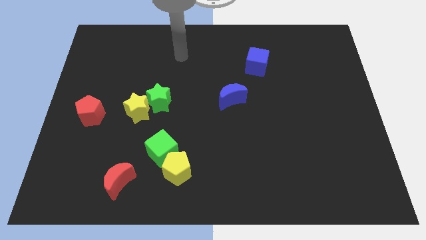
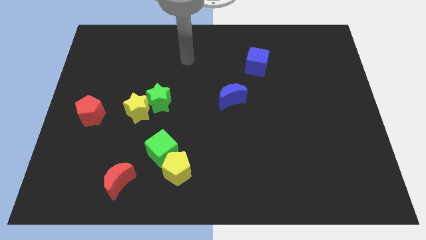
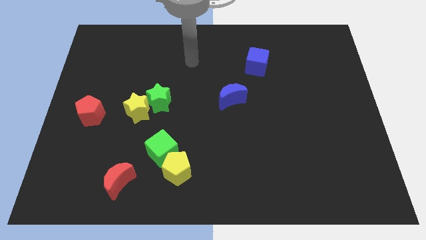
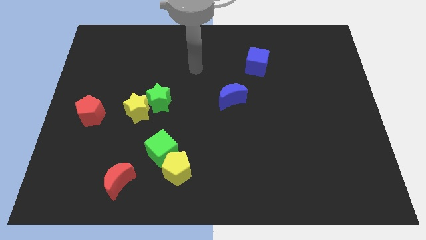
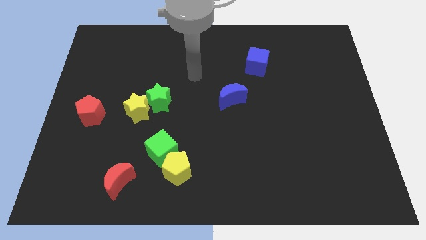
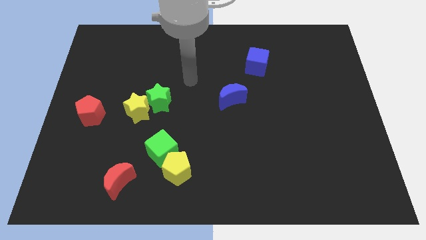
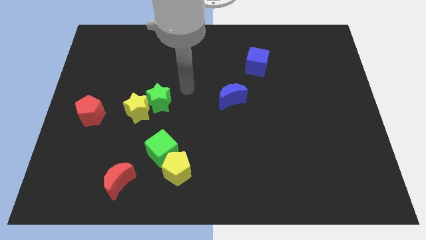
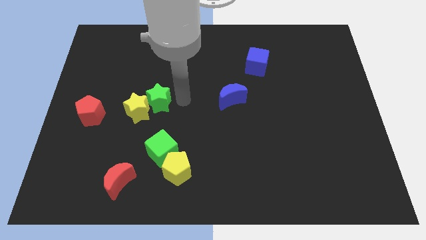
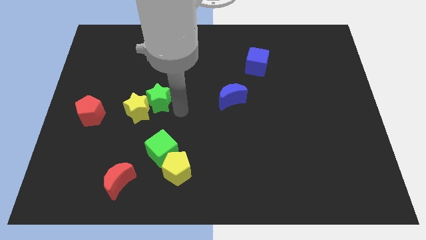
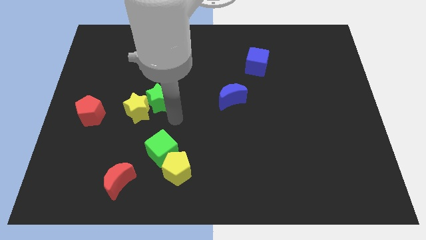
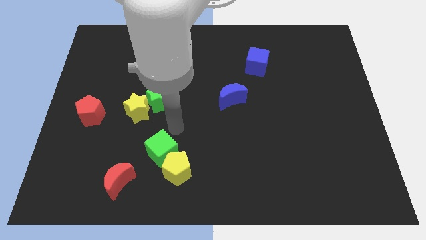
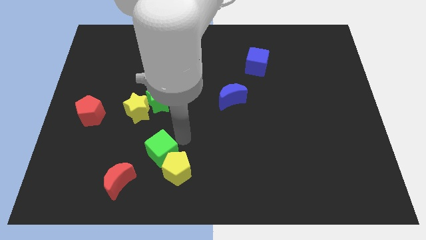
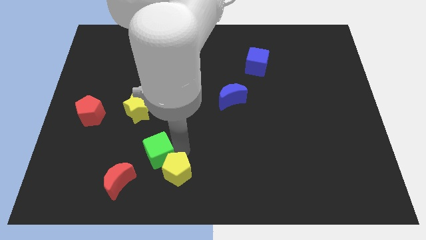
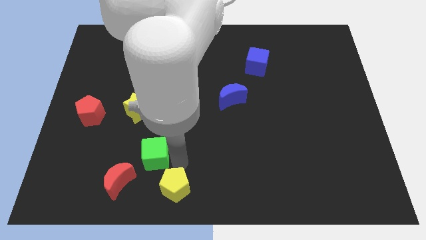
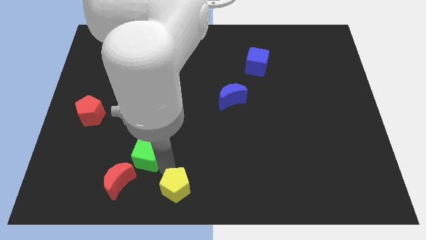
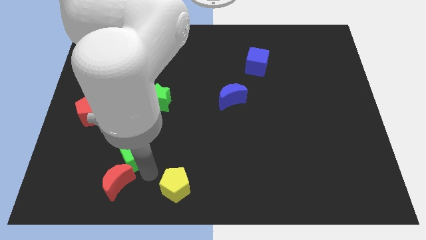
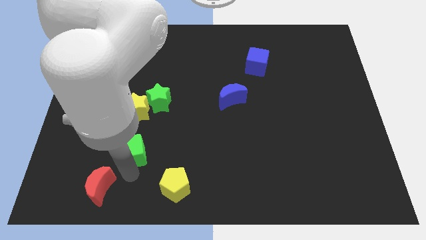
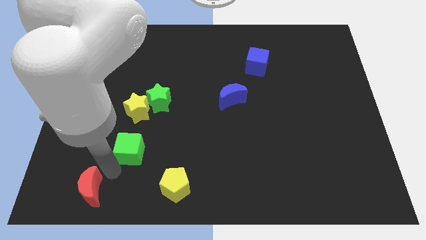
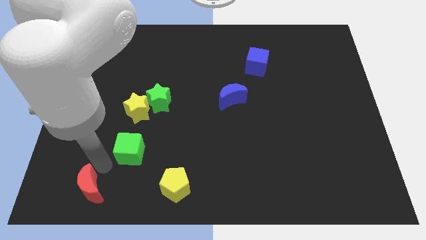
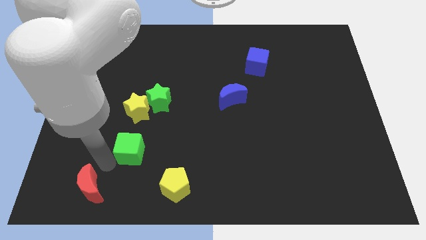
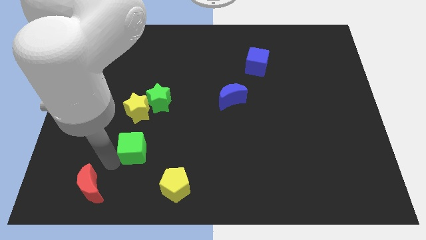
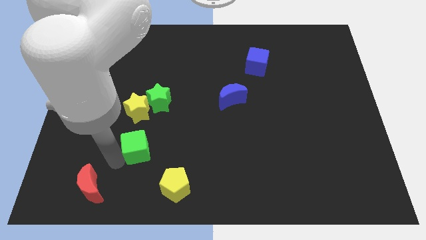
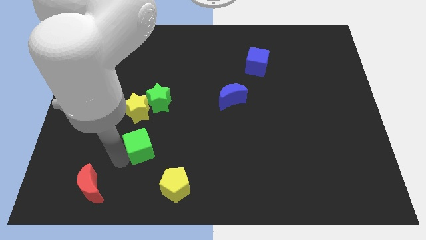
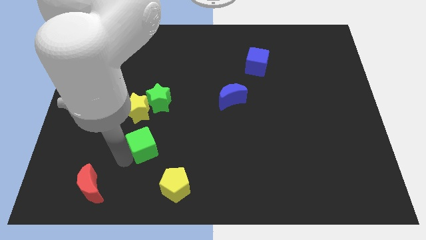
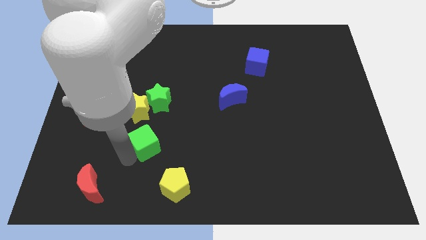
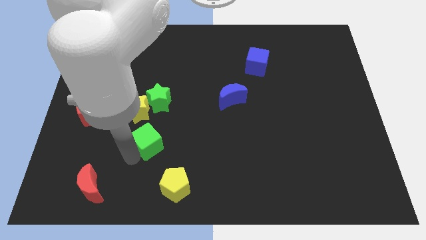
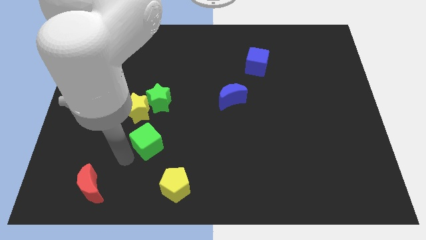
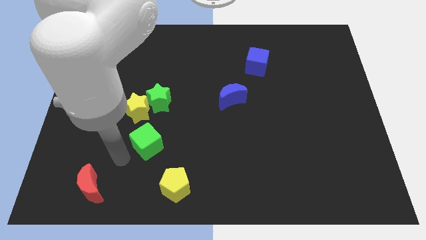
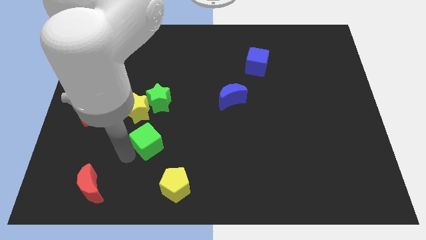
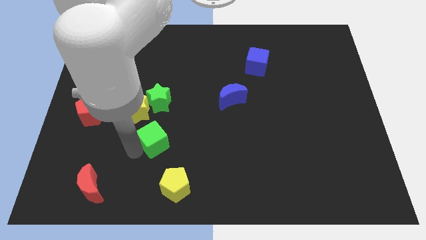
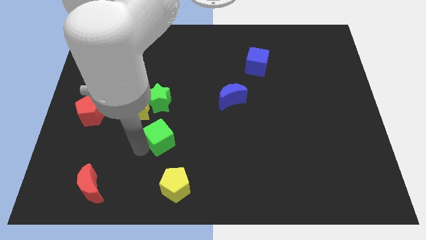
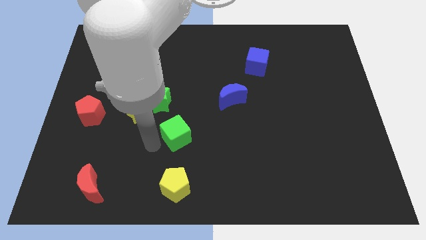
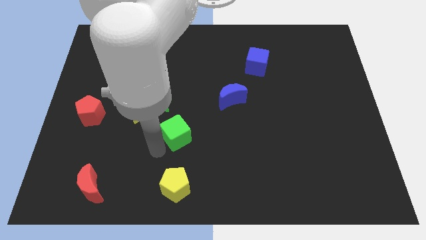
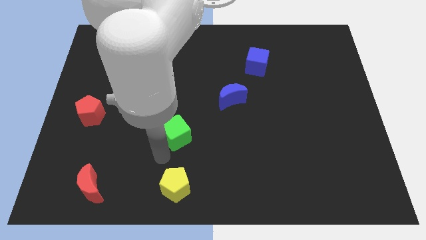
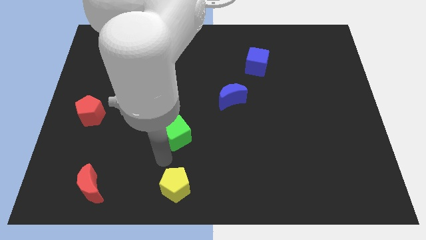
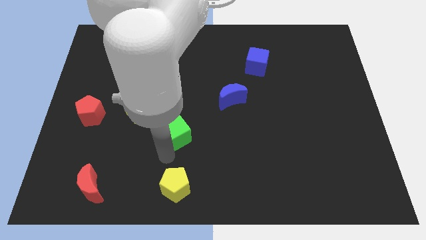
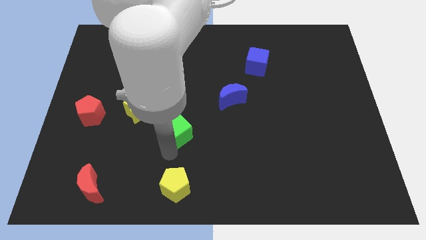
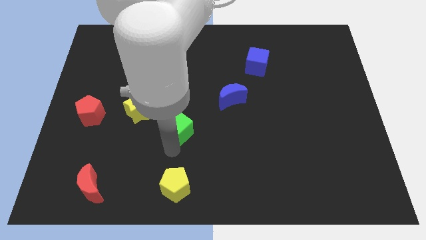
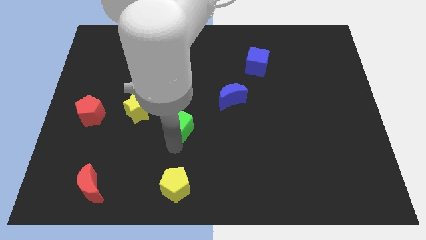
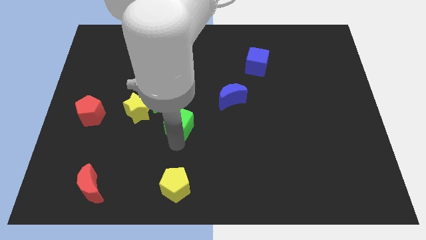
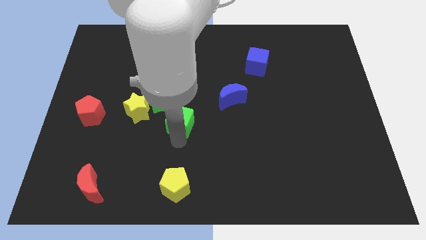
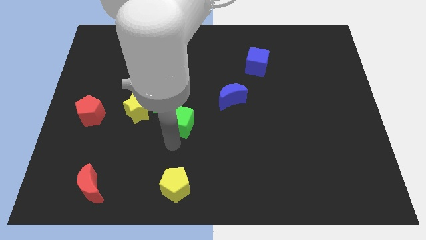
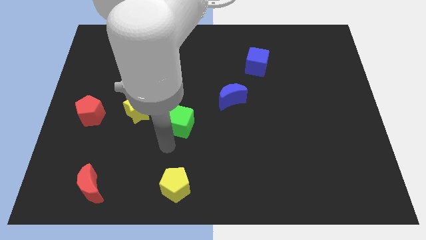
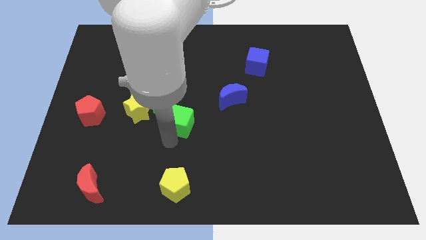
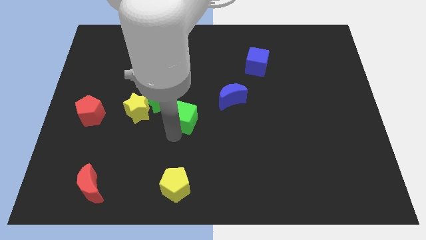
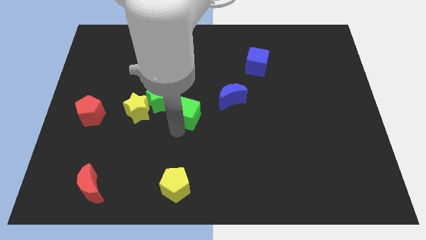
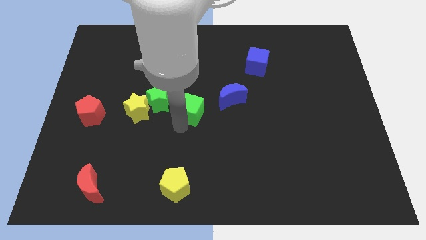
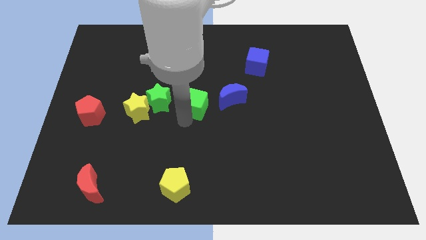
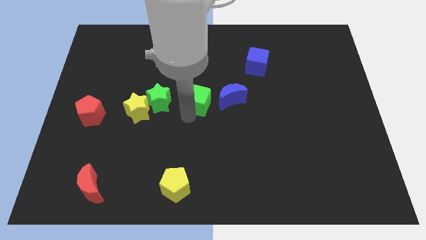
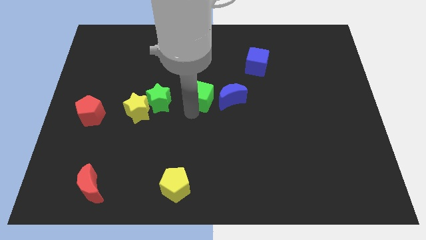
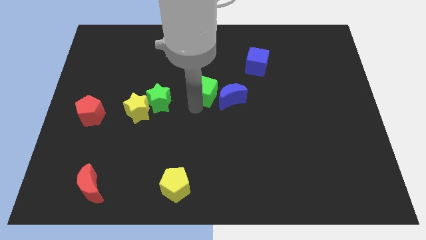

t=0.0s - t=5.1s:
slide the green cube to the top left of the blue moon

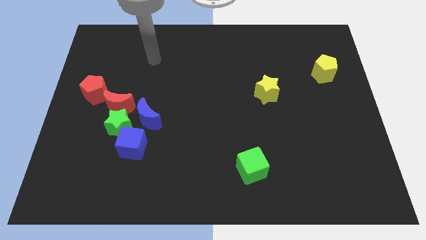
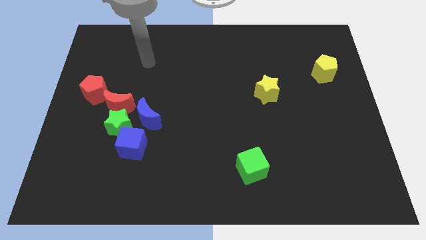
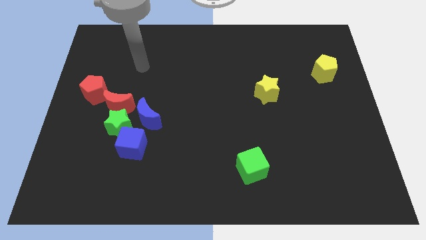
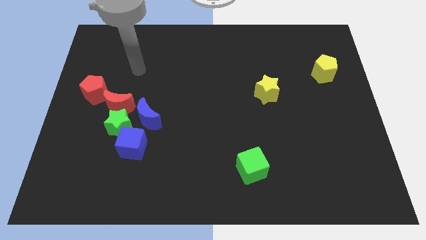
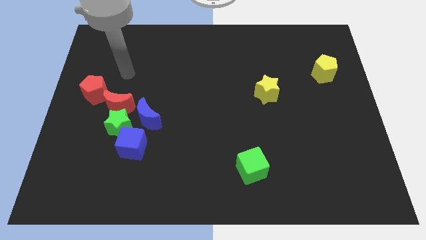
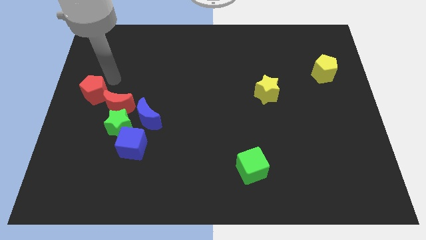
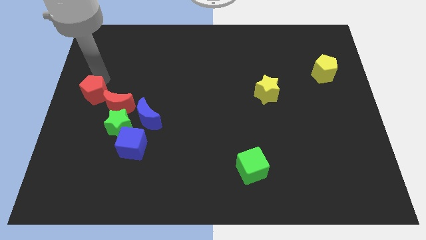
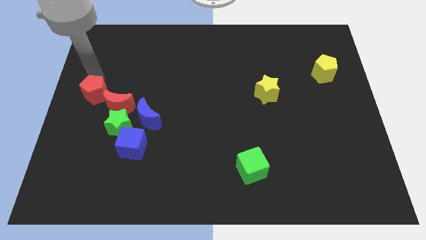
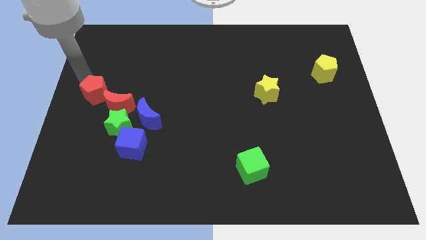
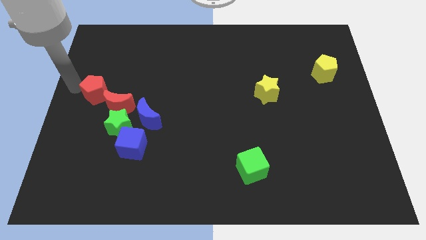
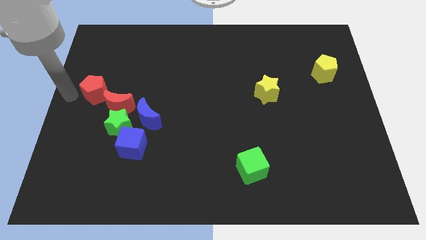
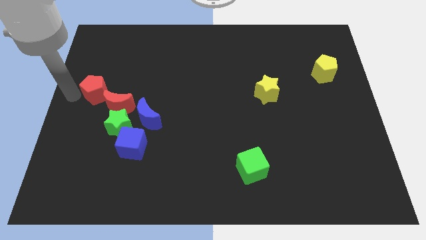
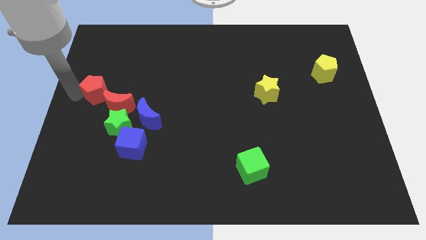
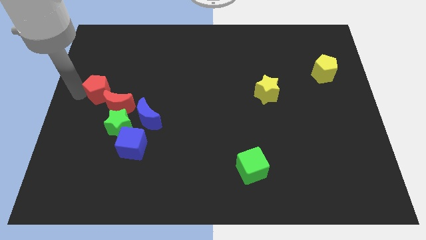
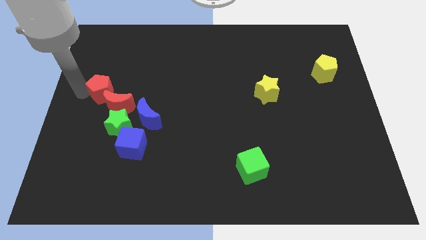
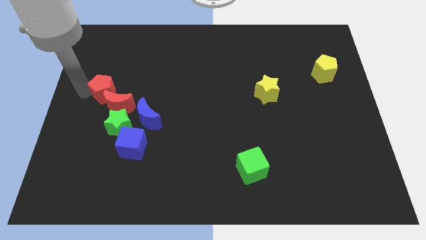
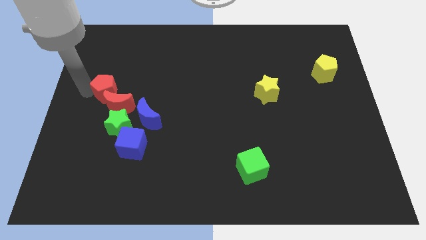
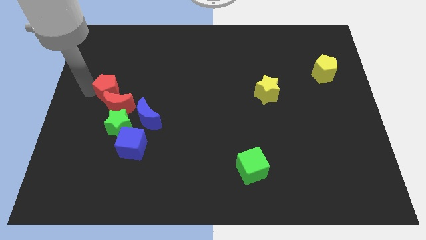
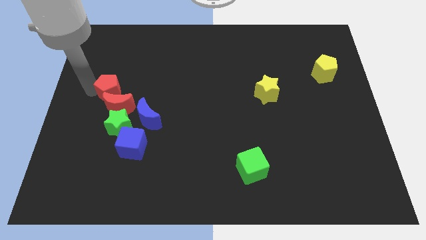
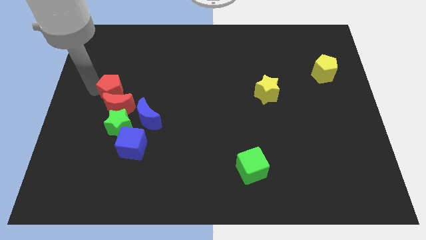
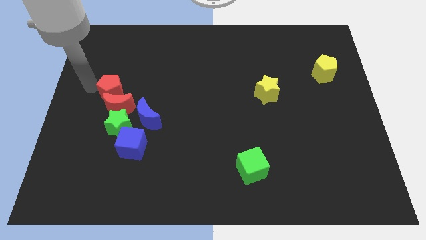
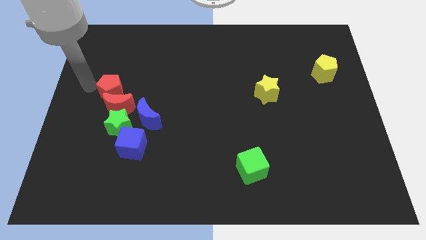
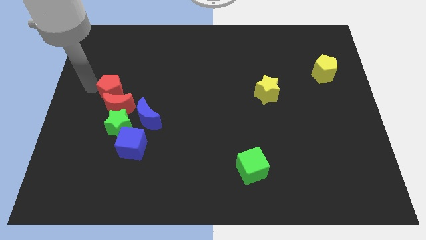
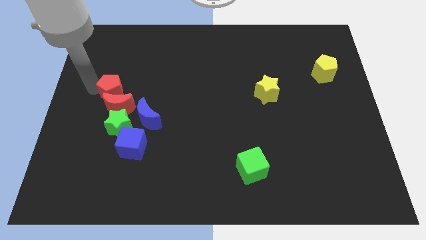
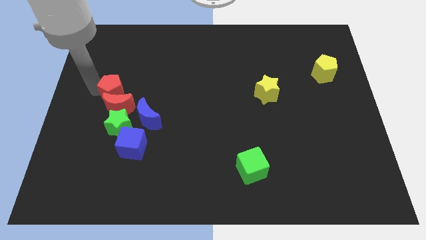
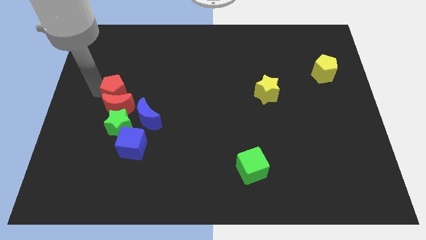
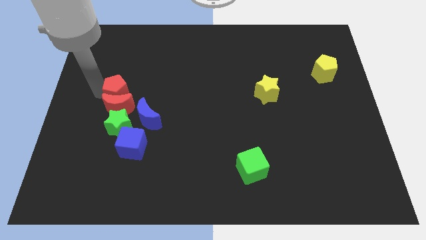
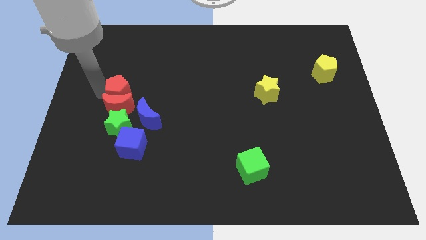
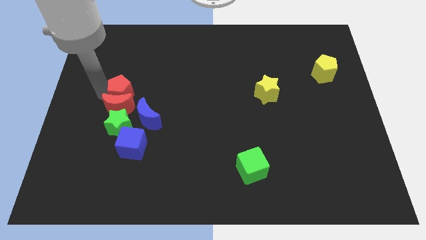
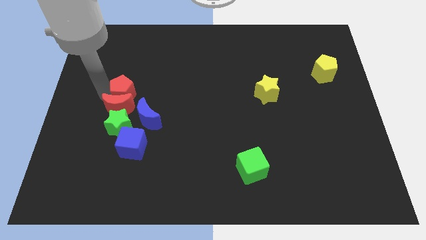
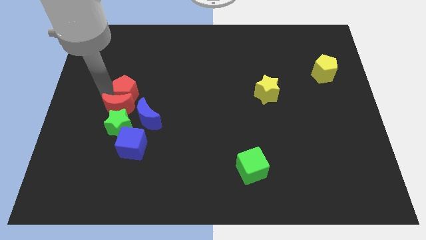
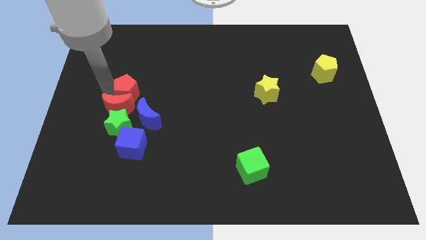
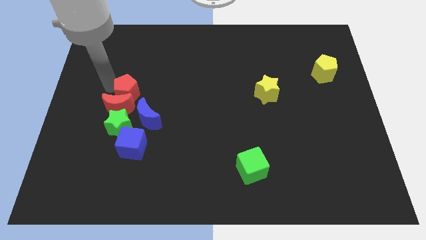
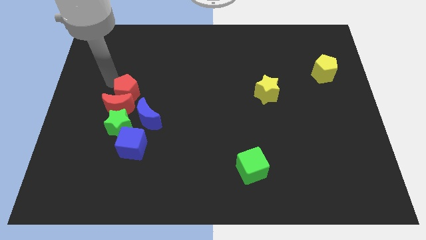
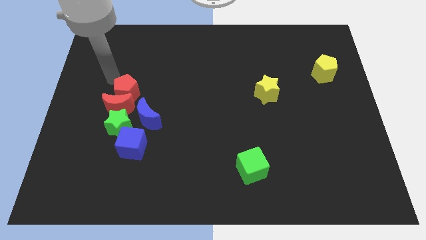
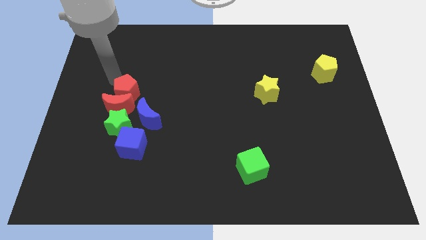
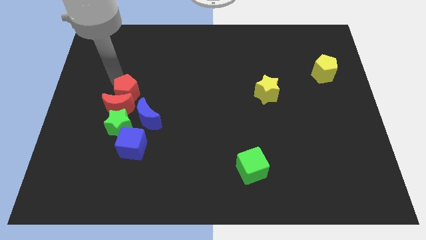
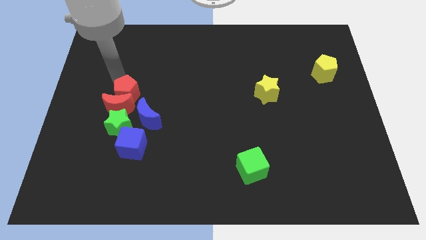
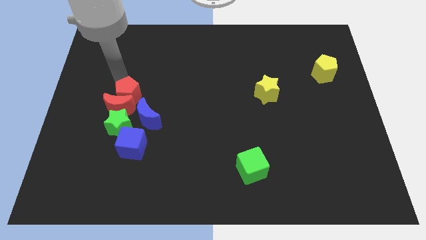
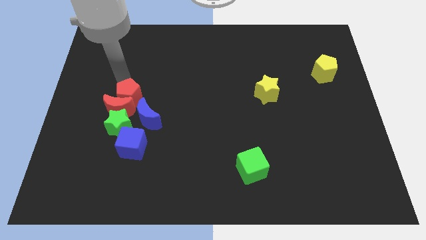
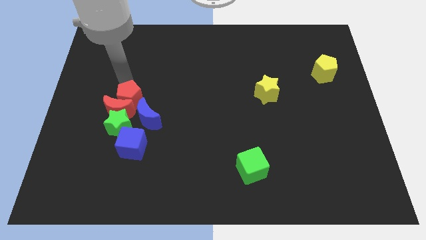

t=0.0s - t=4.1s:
move the red pentagon diagonally up and to the right of the green star
